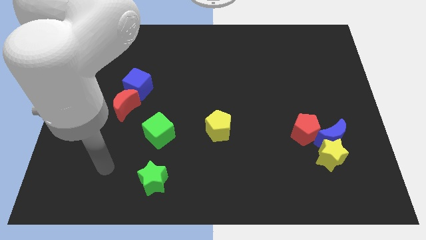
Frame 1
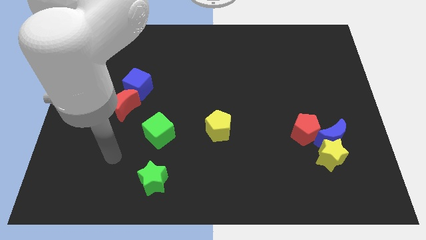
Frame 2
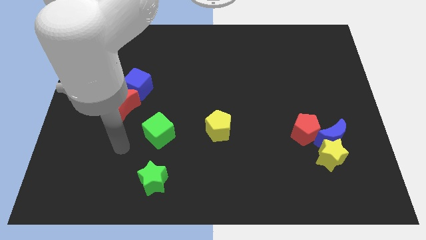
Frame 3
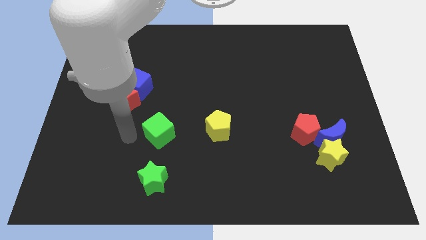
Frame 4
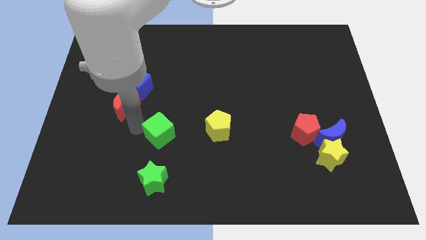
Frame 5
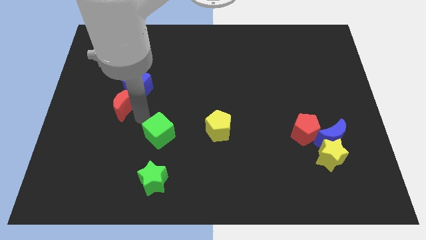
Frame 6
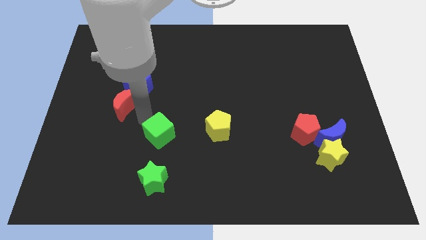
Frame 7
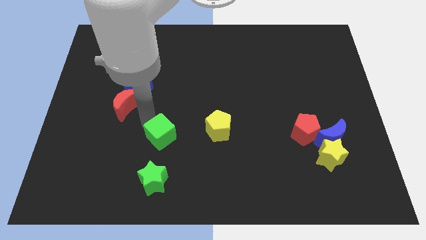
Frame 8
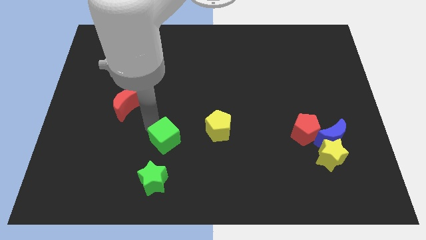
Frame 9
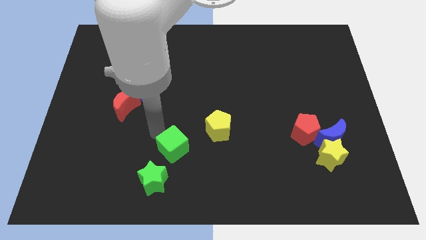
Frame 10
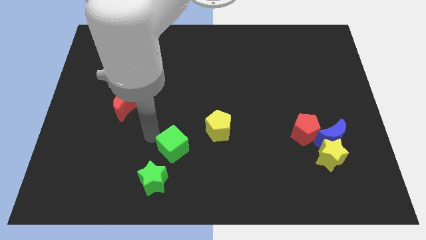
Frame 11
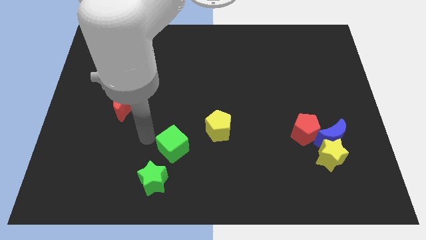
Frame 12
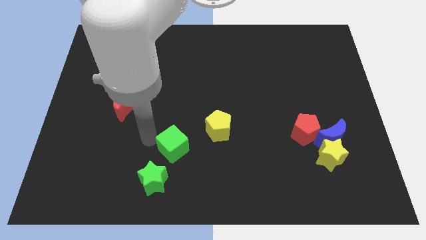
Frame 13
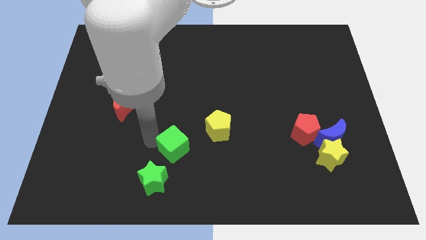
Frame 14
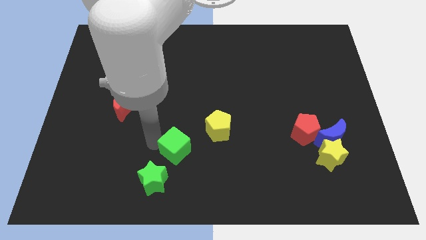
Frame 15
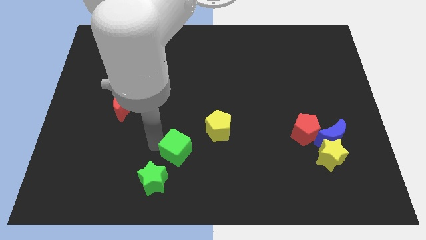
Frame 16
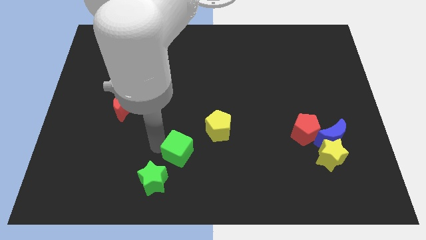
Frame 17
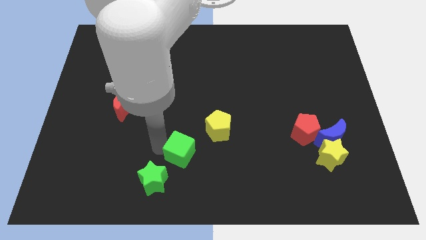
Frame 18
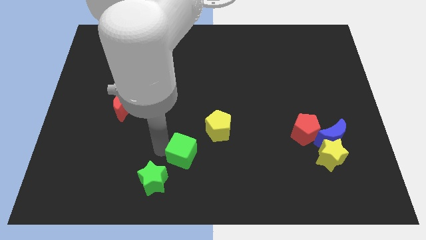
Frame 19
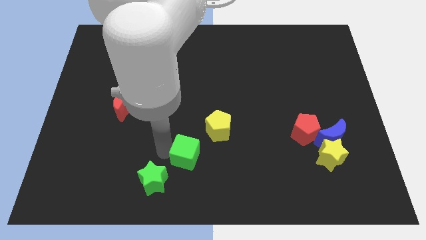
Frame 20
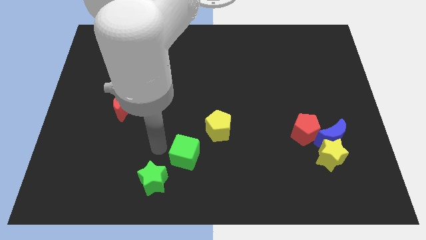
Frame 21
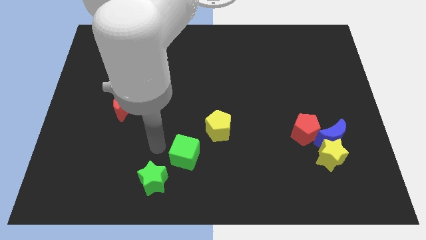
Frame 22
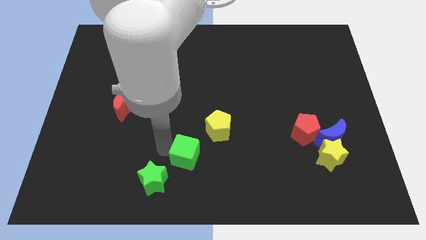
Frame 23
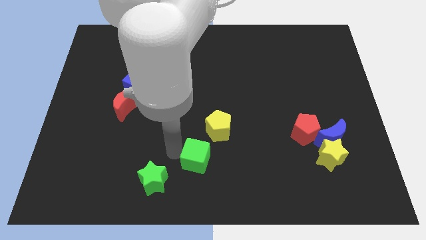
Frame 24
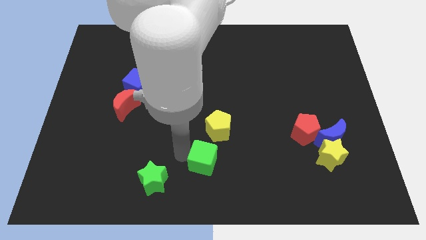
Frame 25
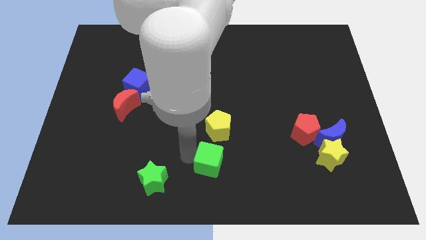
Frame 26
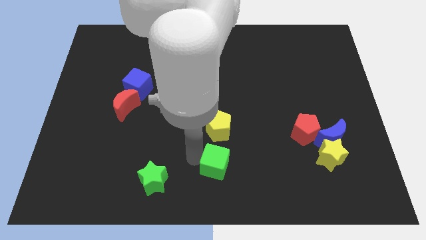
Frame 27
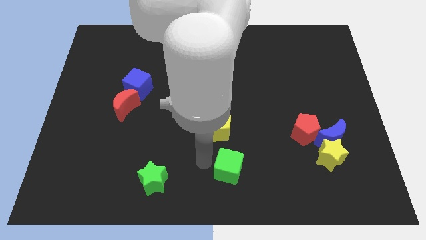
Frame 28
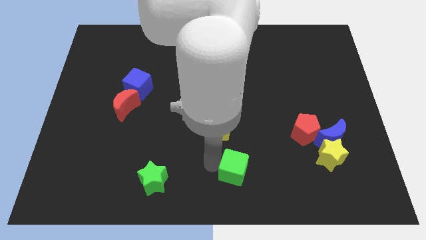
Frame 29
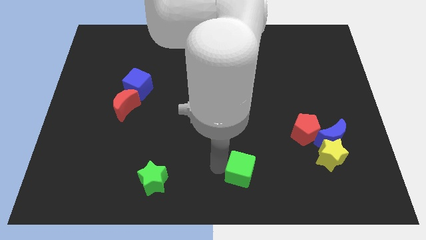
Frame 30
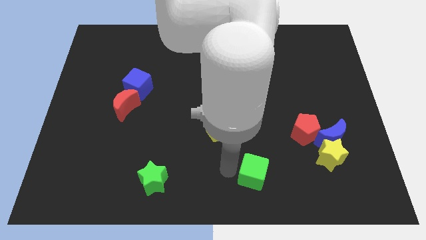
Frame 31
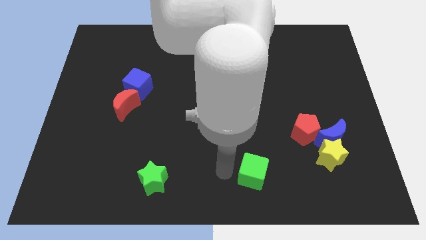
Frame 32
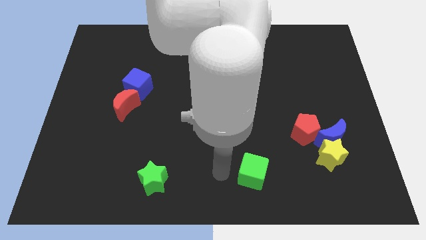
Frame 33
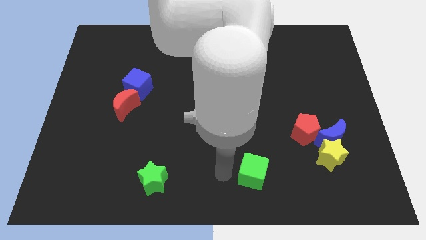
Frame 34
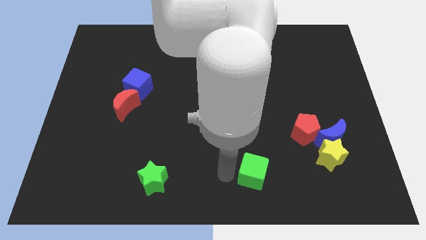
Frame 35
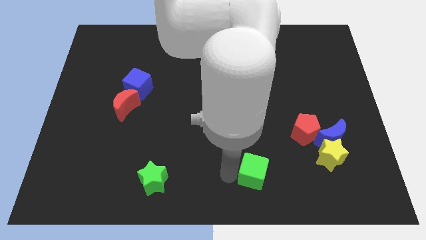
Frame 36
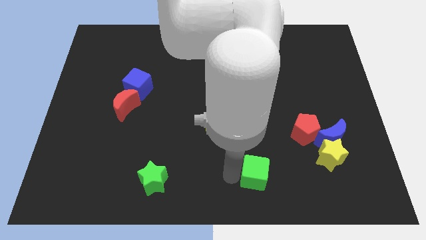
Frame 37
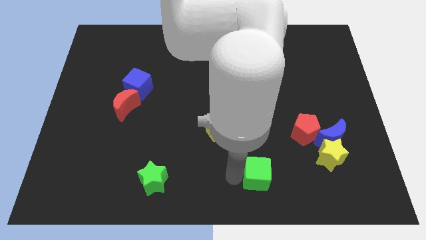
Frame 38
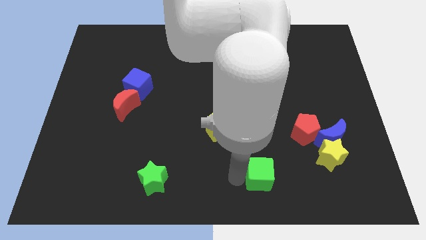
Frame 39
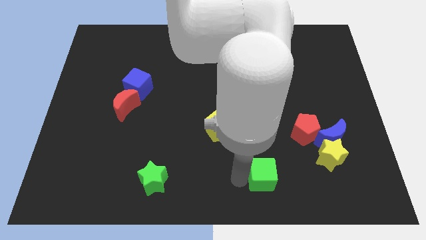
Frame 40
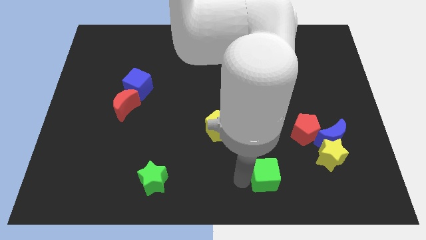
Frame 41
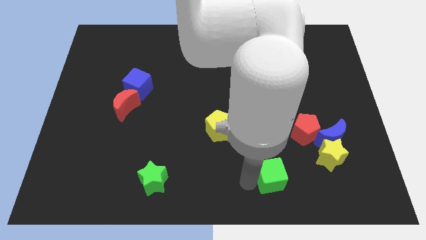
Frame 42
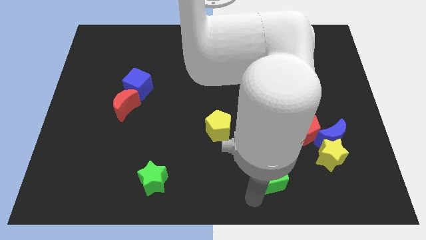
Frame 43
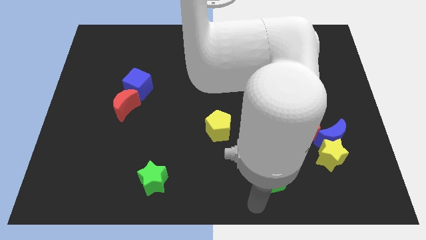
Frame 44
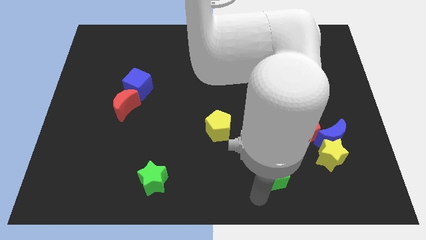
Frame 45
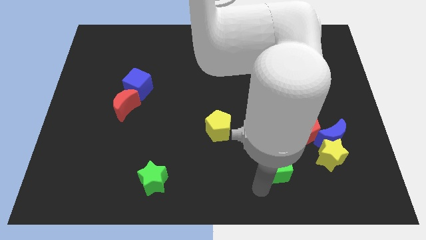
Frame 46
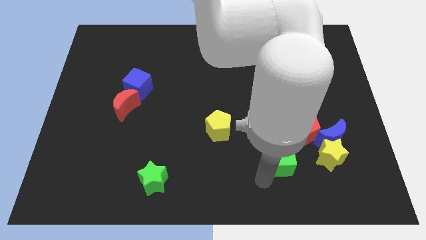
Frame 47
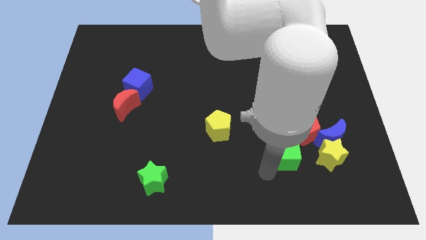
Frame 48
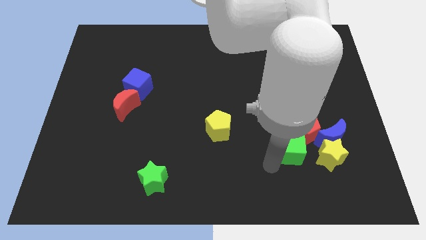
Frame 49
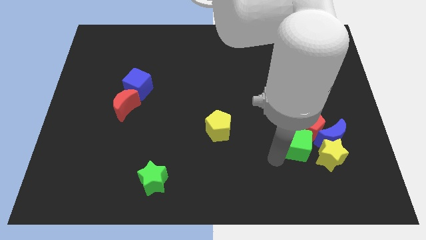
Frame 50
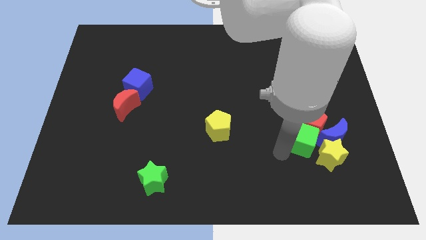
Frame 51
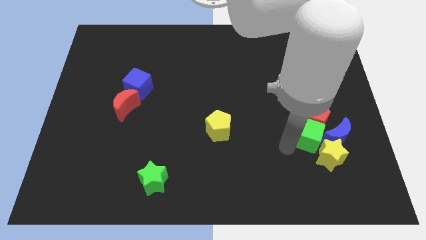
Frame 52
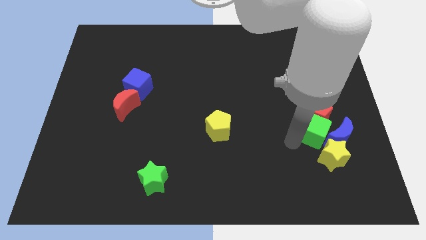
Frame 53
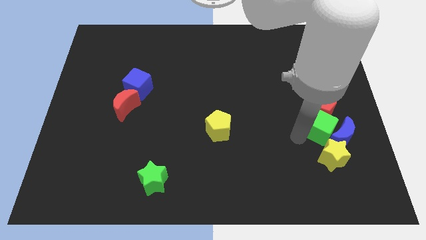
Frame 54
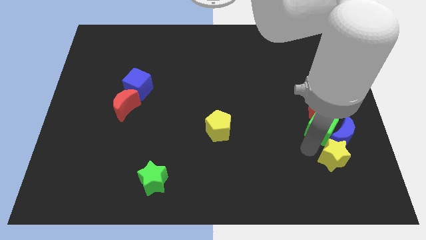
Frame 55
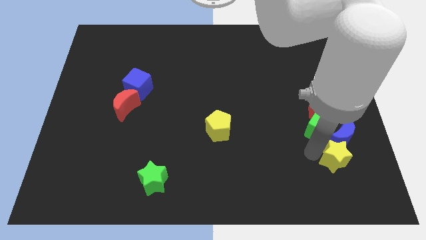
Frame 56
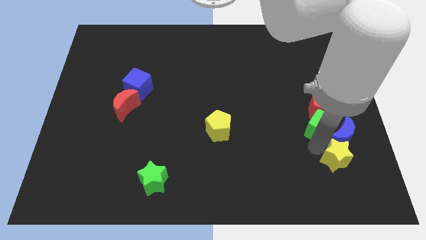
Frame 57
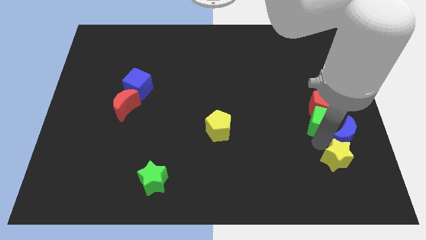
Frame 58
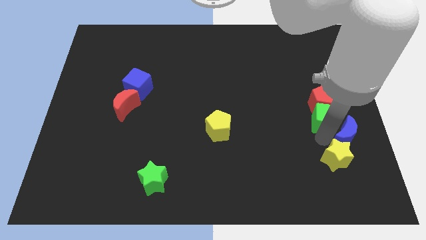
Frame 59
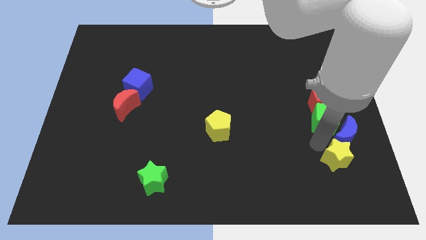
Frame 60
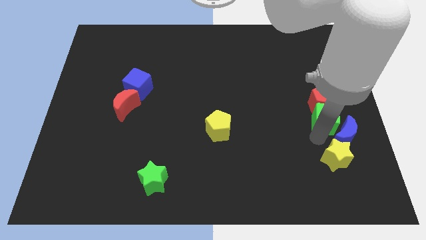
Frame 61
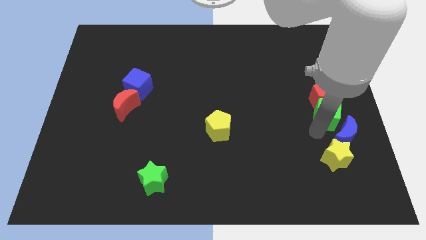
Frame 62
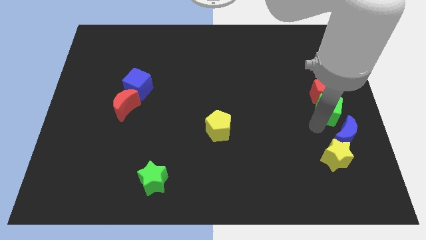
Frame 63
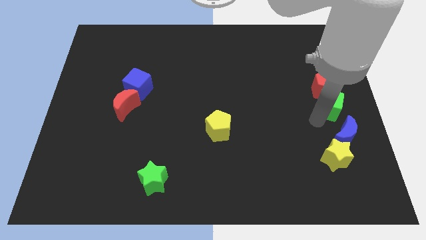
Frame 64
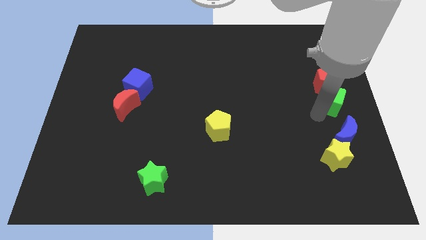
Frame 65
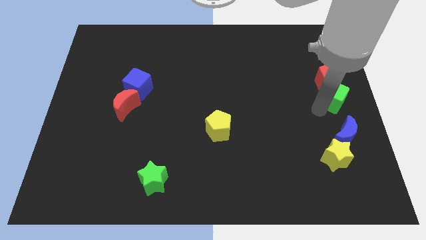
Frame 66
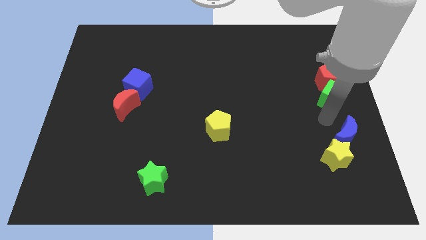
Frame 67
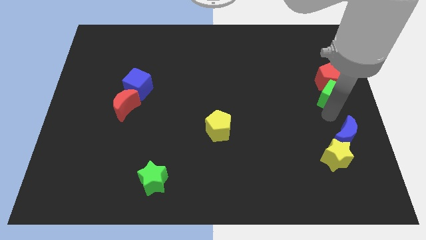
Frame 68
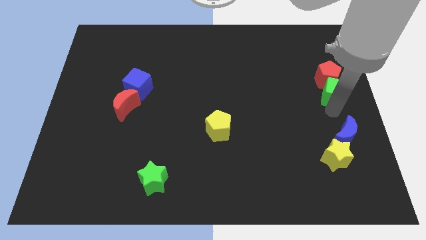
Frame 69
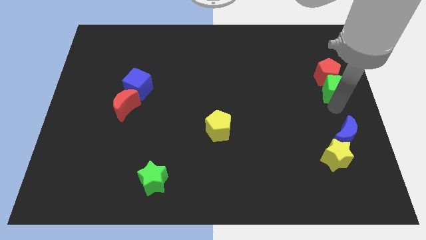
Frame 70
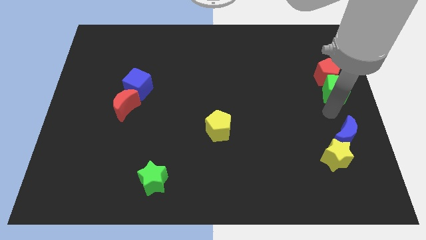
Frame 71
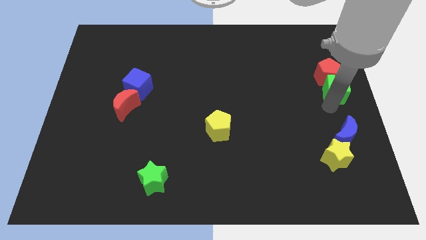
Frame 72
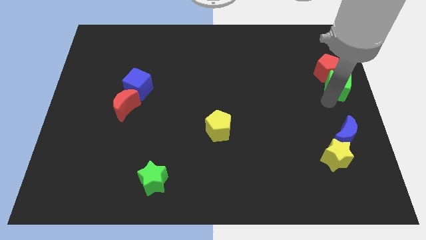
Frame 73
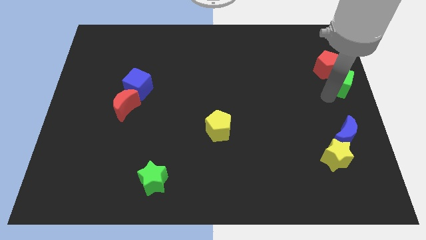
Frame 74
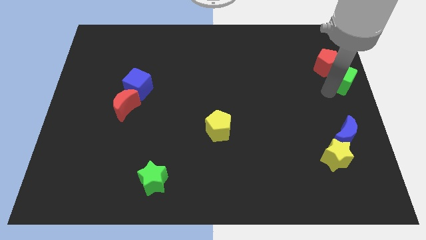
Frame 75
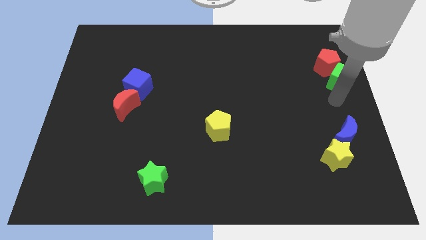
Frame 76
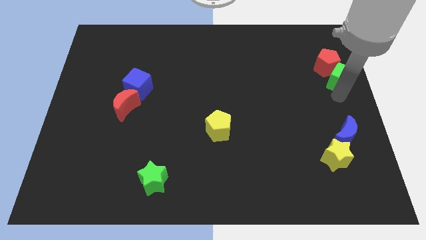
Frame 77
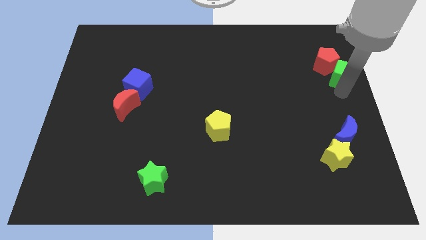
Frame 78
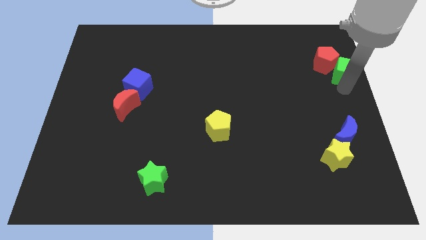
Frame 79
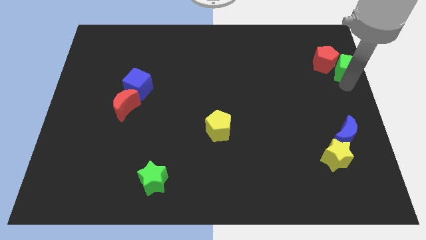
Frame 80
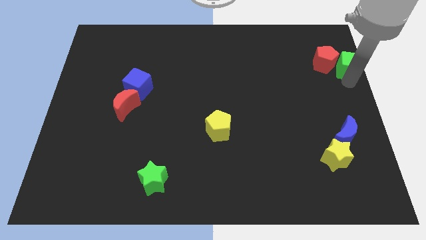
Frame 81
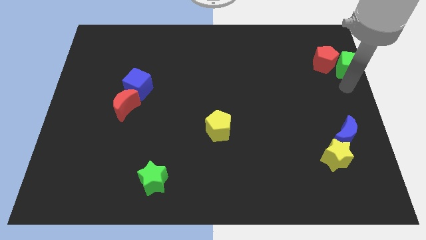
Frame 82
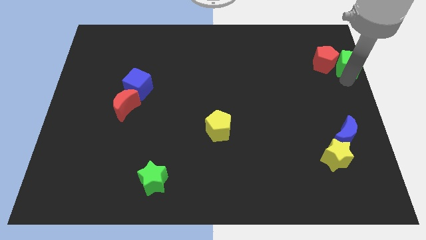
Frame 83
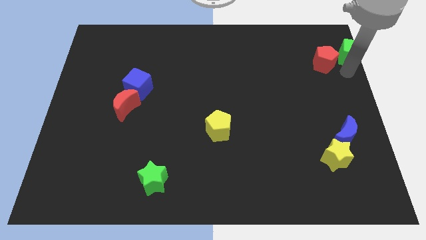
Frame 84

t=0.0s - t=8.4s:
push the green cube to the top right
